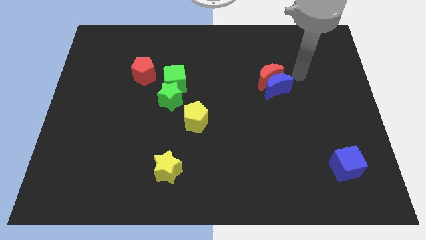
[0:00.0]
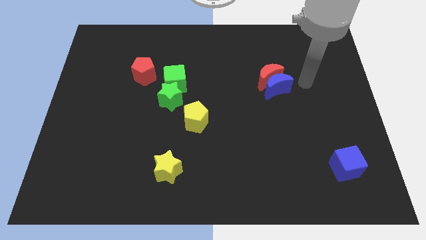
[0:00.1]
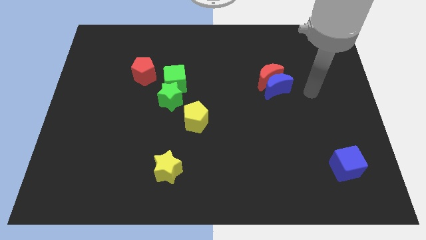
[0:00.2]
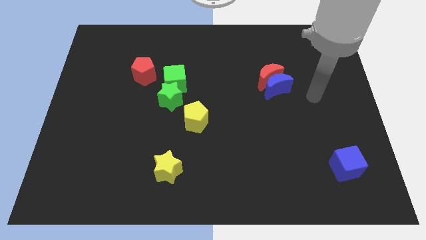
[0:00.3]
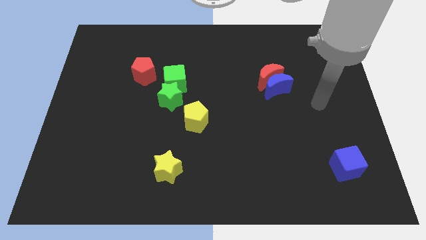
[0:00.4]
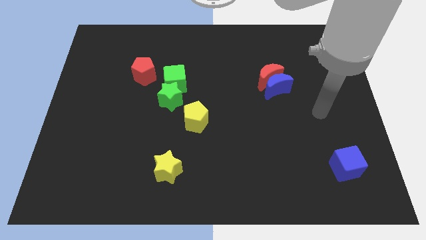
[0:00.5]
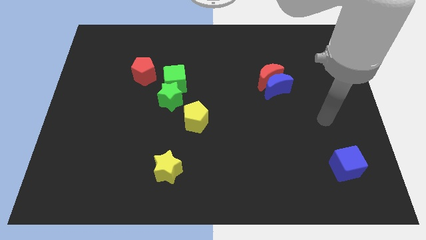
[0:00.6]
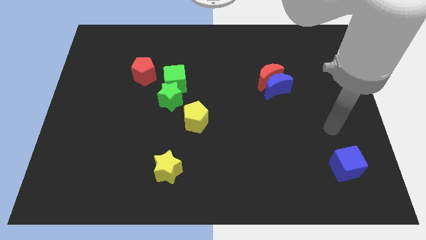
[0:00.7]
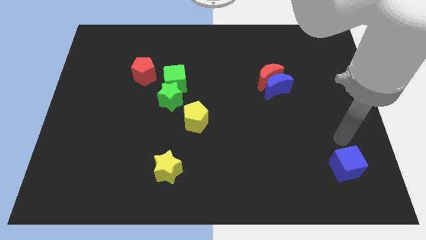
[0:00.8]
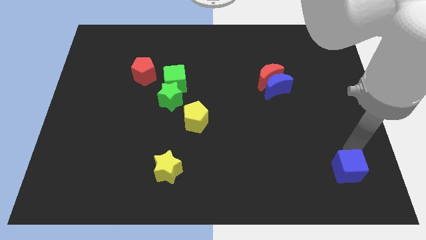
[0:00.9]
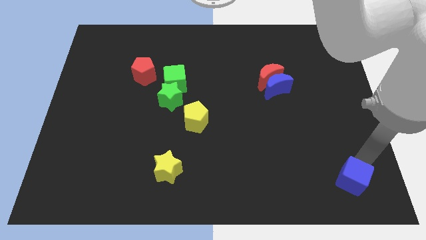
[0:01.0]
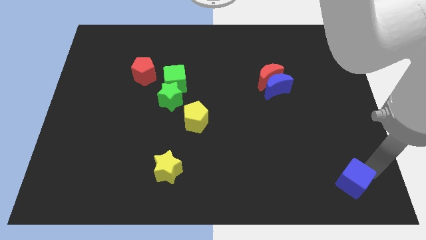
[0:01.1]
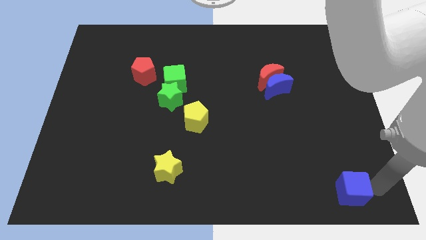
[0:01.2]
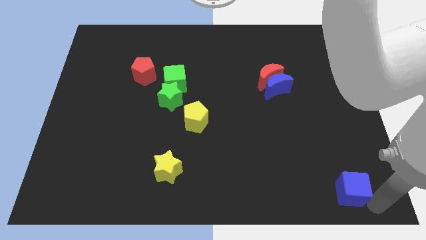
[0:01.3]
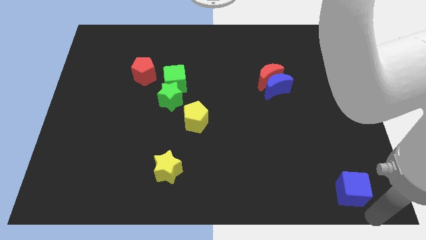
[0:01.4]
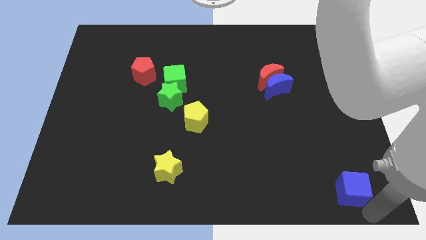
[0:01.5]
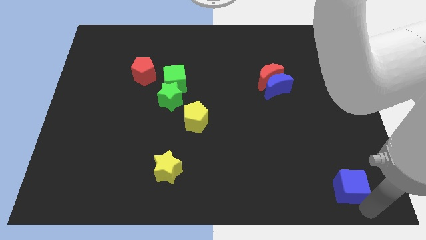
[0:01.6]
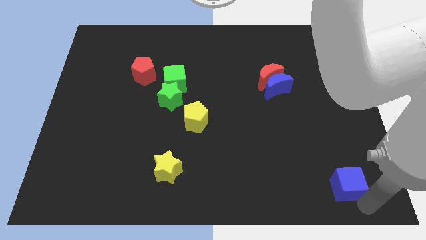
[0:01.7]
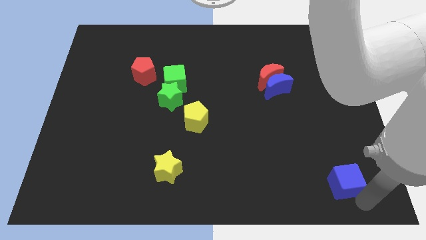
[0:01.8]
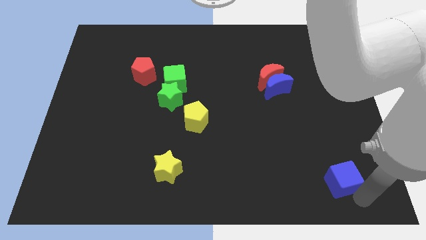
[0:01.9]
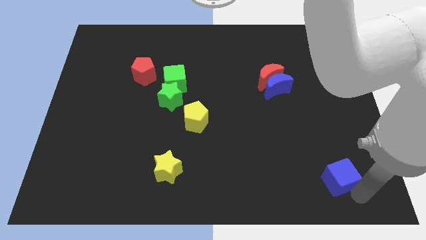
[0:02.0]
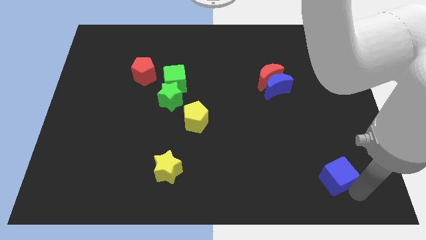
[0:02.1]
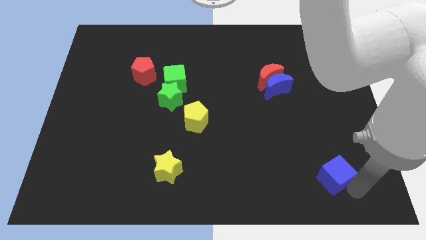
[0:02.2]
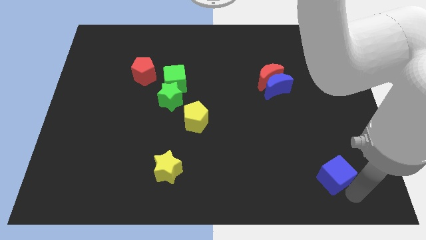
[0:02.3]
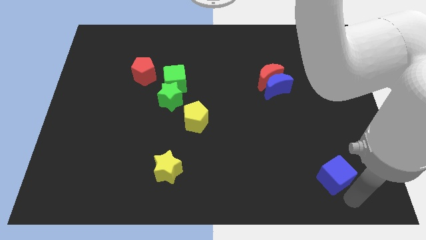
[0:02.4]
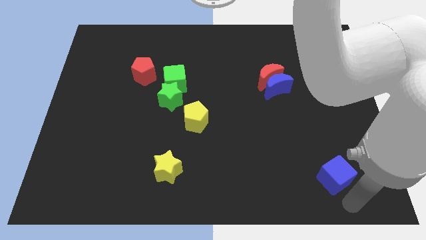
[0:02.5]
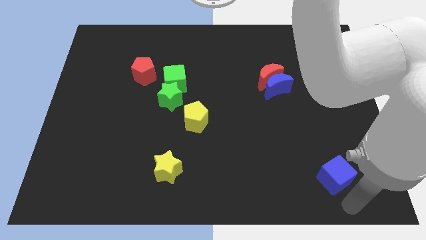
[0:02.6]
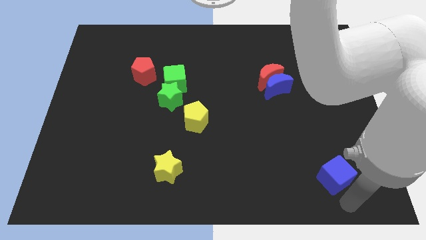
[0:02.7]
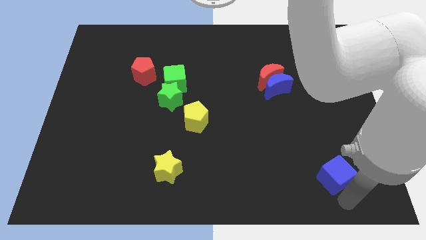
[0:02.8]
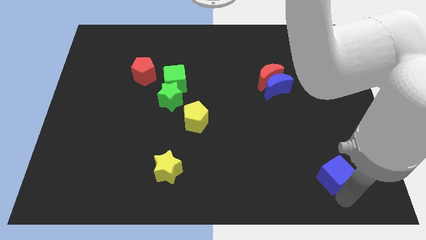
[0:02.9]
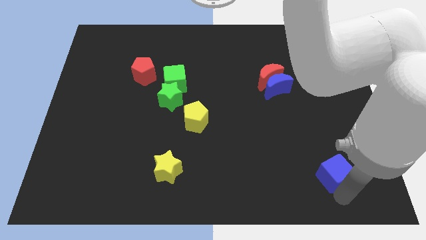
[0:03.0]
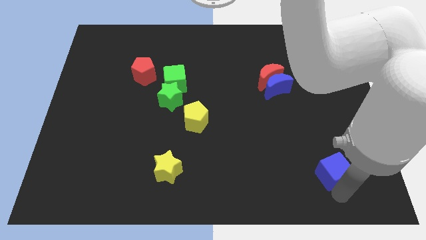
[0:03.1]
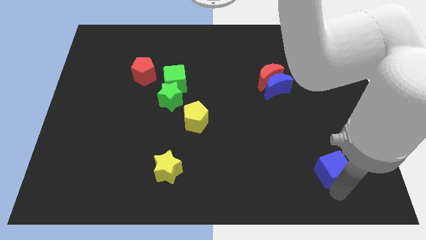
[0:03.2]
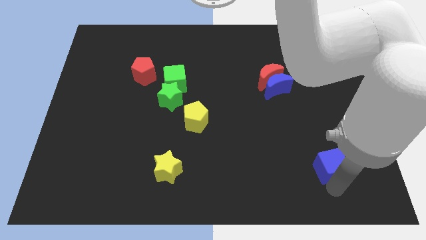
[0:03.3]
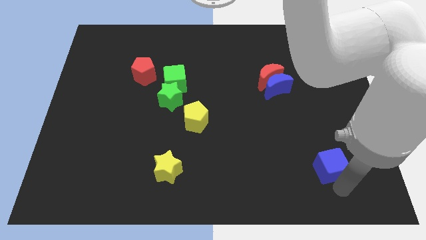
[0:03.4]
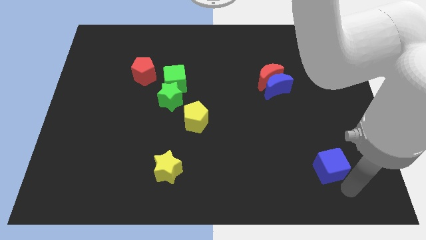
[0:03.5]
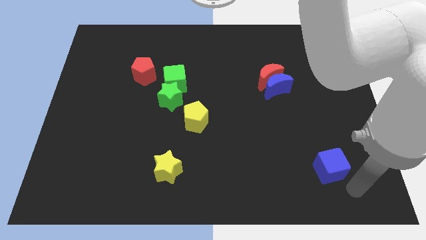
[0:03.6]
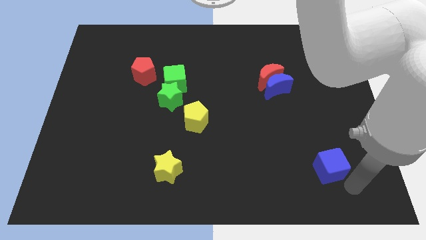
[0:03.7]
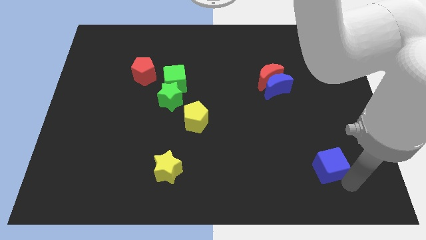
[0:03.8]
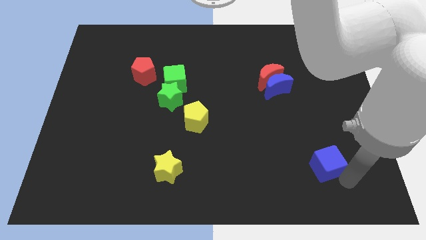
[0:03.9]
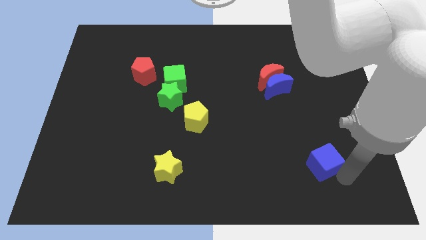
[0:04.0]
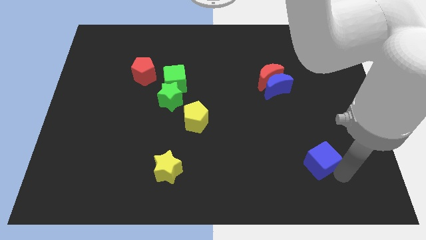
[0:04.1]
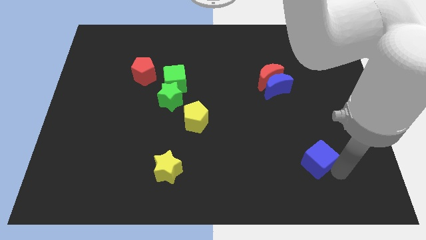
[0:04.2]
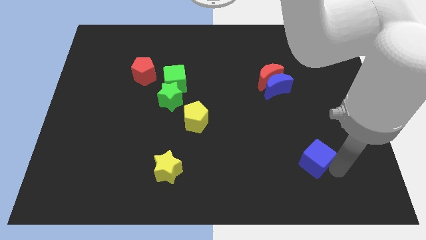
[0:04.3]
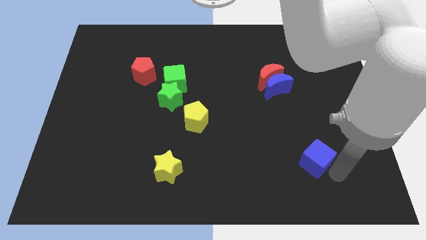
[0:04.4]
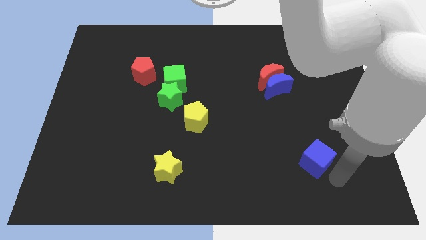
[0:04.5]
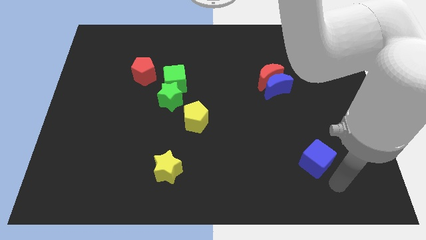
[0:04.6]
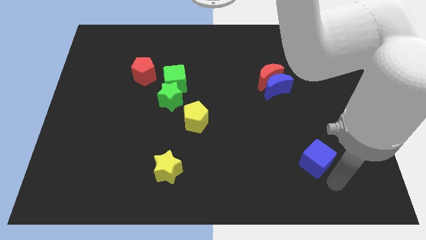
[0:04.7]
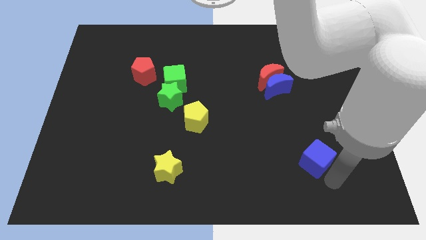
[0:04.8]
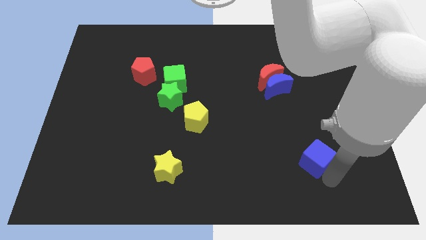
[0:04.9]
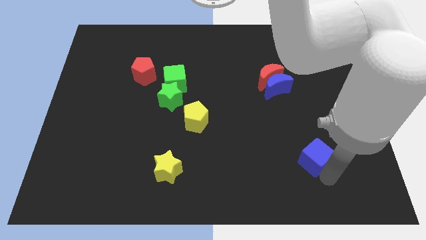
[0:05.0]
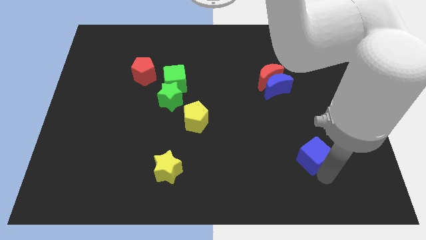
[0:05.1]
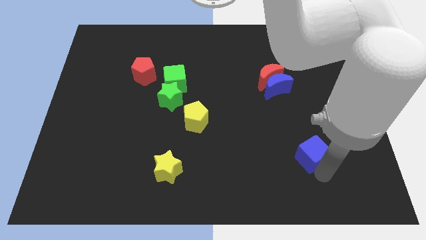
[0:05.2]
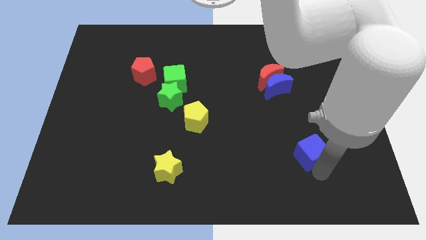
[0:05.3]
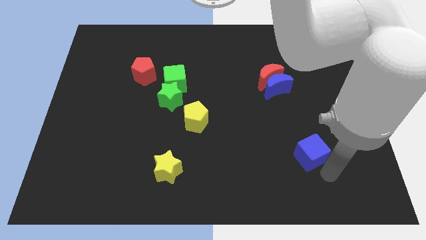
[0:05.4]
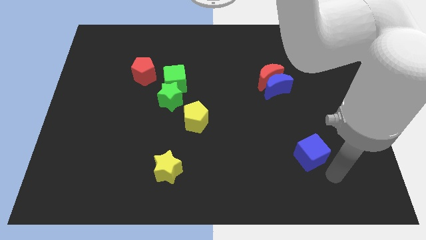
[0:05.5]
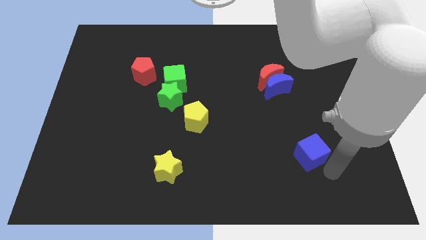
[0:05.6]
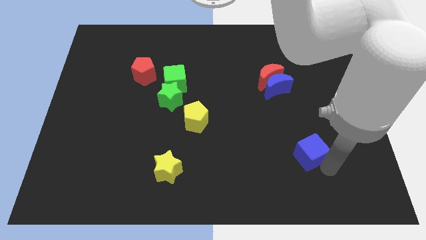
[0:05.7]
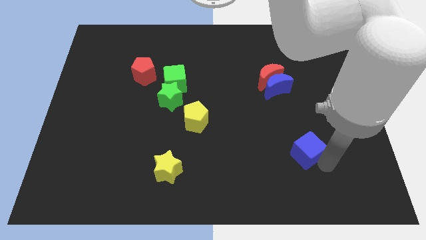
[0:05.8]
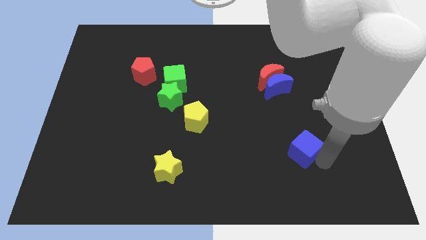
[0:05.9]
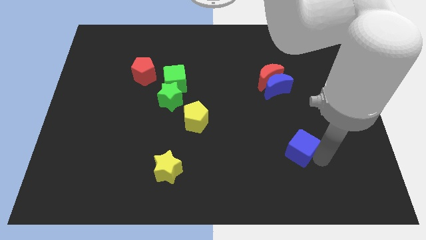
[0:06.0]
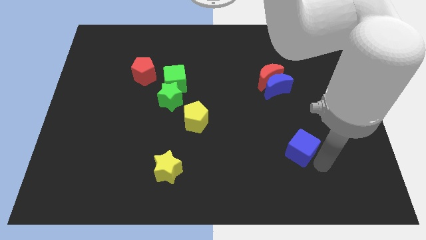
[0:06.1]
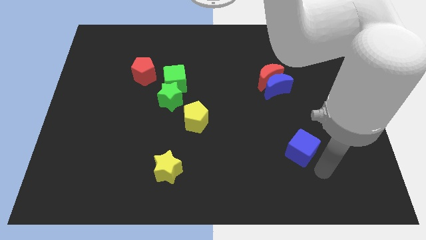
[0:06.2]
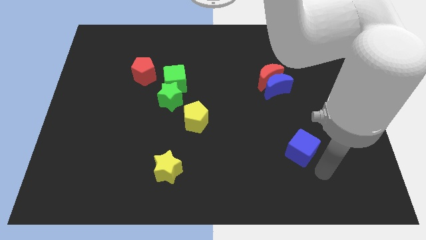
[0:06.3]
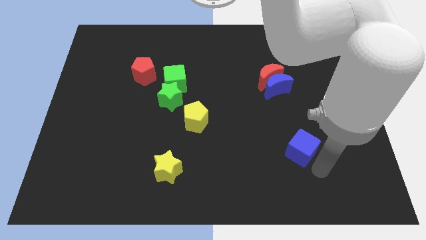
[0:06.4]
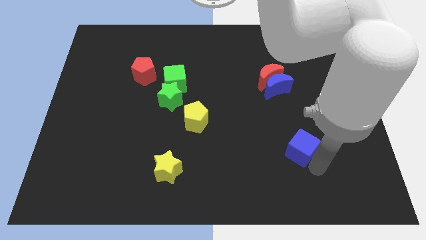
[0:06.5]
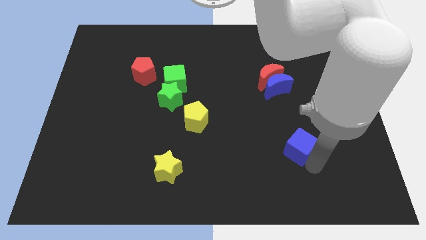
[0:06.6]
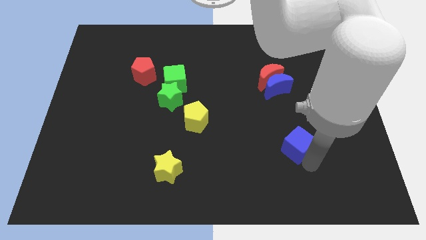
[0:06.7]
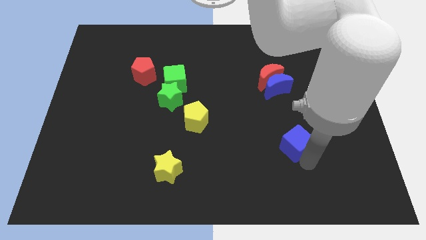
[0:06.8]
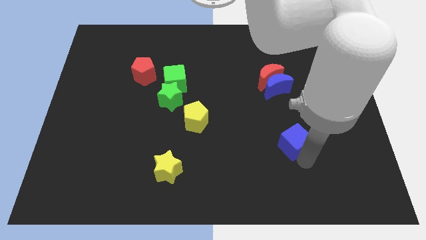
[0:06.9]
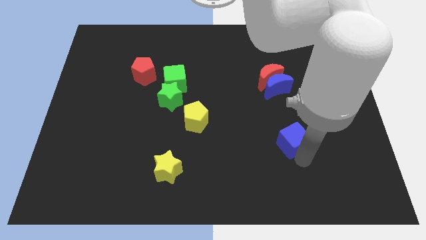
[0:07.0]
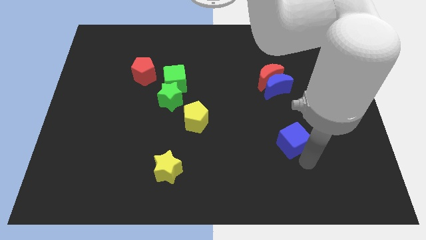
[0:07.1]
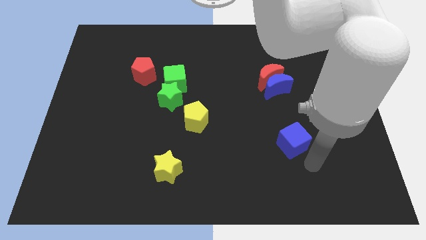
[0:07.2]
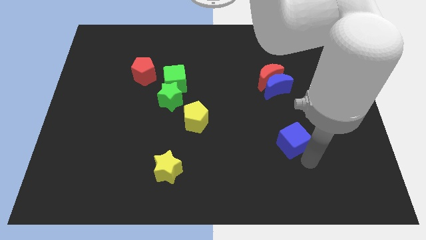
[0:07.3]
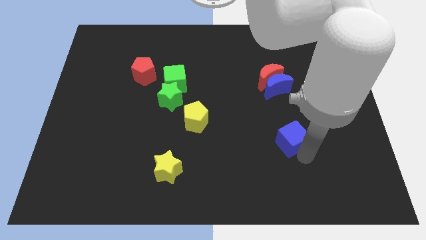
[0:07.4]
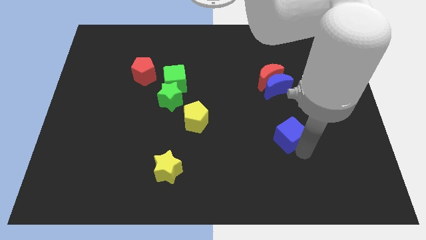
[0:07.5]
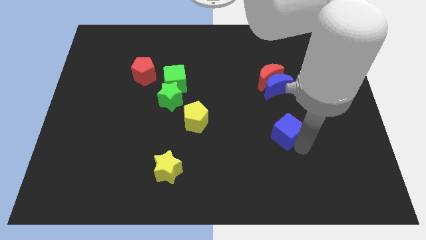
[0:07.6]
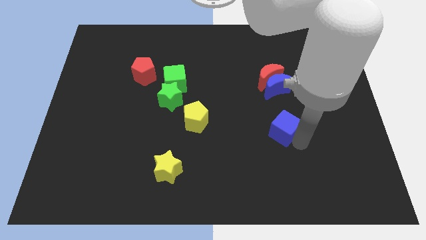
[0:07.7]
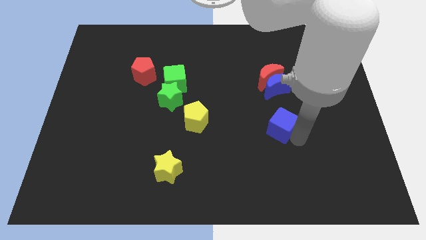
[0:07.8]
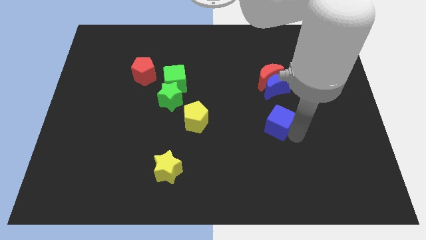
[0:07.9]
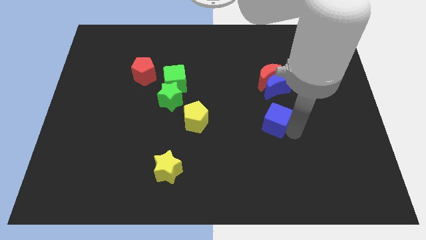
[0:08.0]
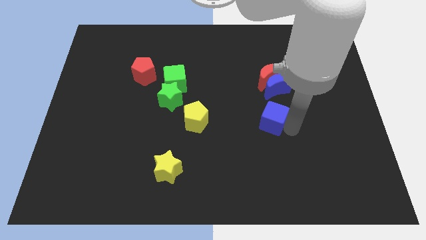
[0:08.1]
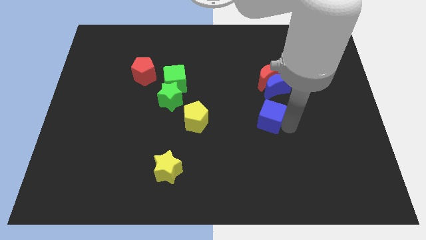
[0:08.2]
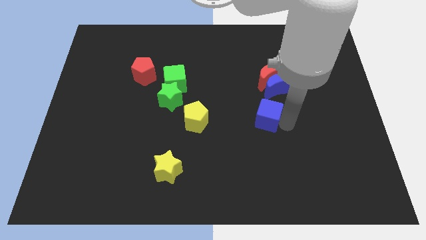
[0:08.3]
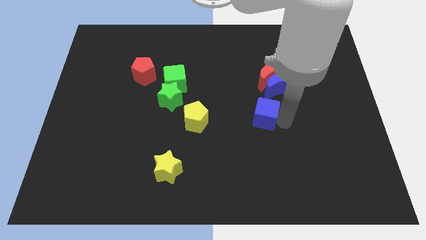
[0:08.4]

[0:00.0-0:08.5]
slide the blue cube just right of the yellow pentagon
